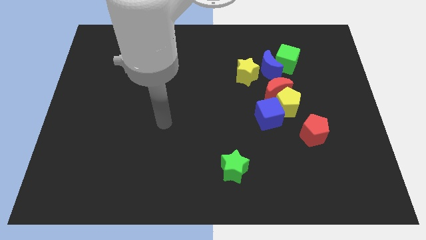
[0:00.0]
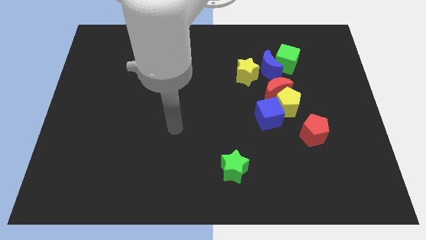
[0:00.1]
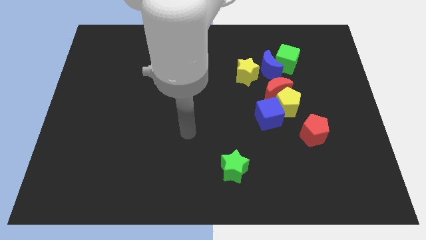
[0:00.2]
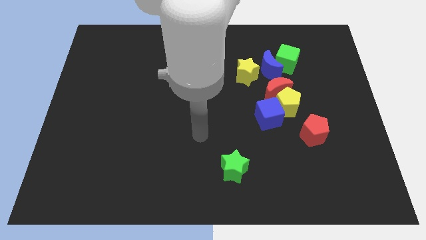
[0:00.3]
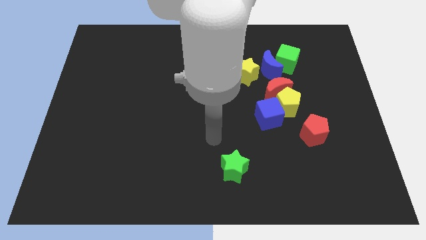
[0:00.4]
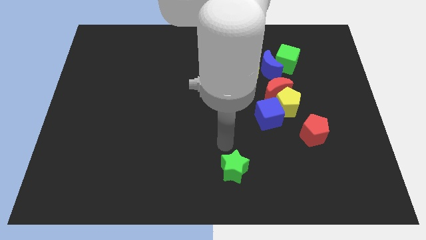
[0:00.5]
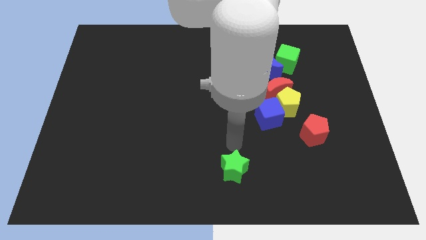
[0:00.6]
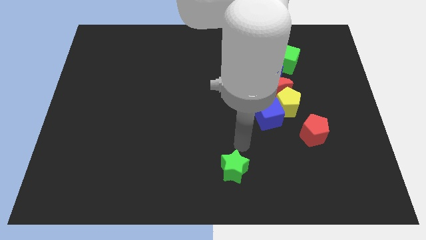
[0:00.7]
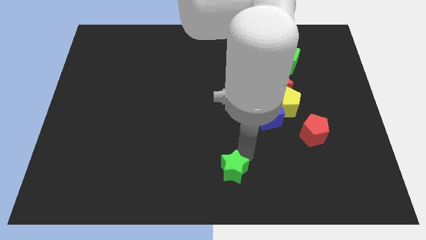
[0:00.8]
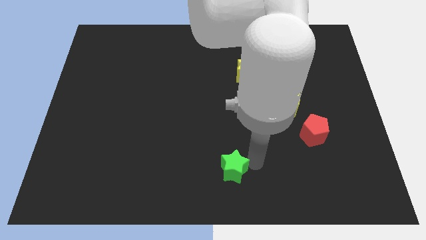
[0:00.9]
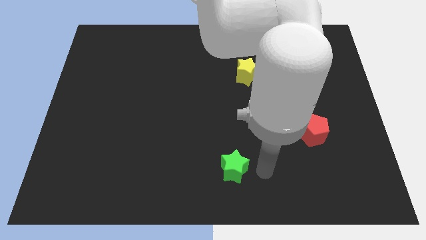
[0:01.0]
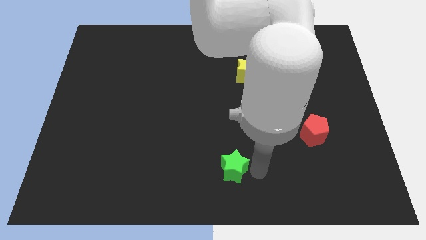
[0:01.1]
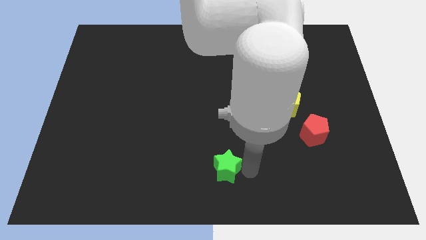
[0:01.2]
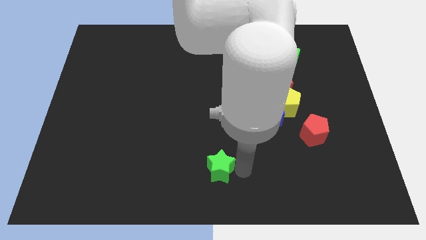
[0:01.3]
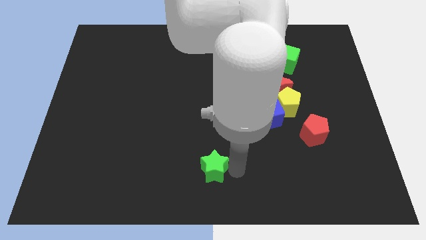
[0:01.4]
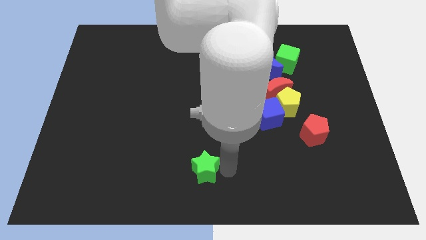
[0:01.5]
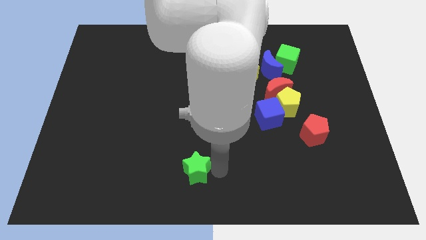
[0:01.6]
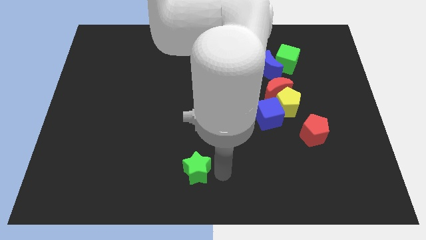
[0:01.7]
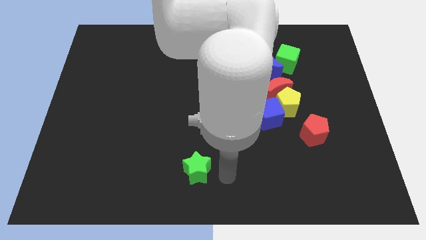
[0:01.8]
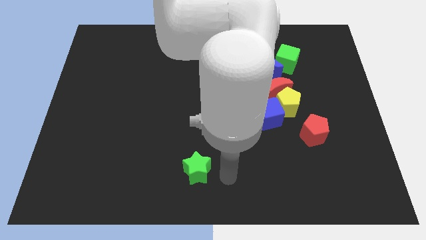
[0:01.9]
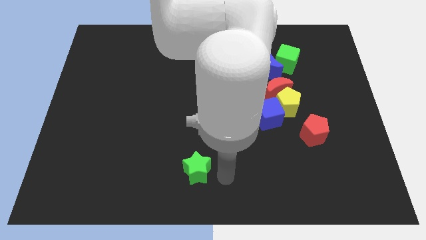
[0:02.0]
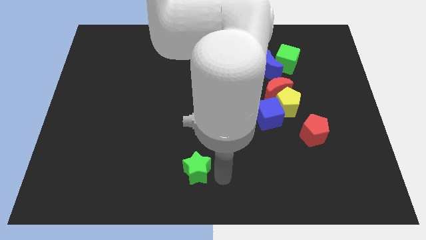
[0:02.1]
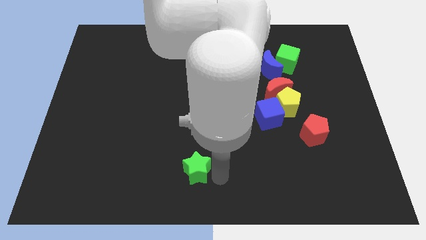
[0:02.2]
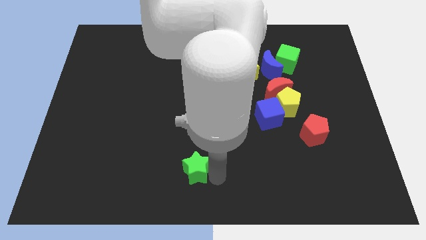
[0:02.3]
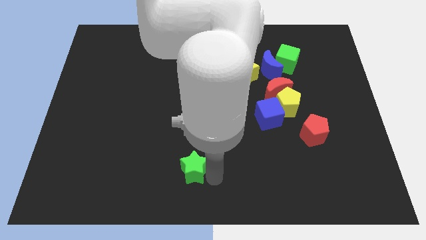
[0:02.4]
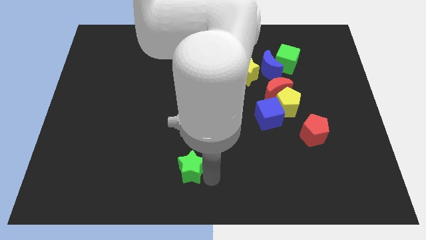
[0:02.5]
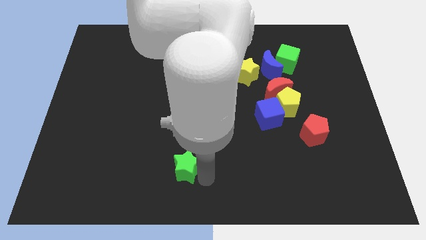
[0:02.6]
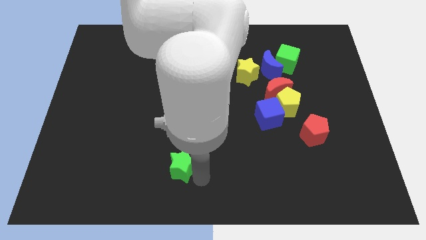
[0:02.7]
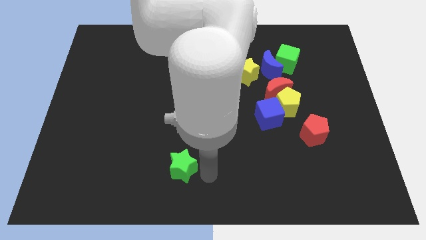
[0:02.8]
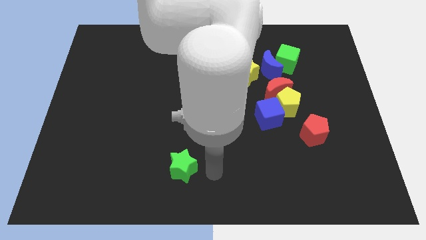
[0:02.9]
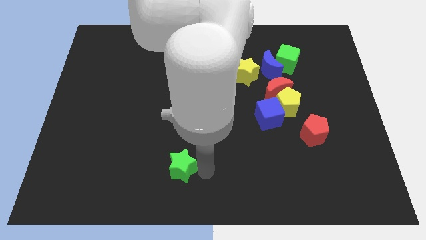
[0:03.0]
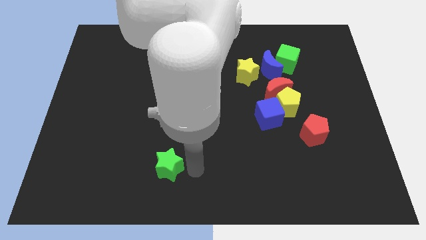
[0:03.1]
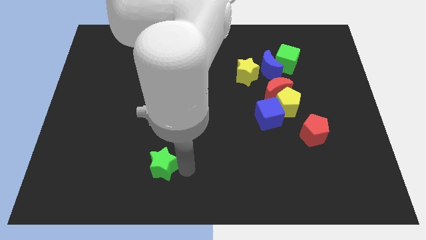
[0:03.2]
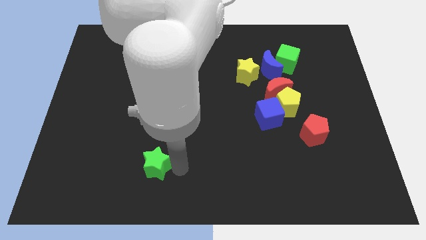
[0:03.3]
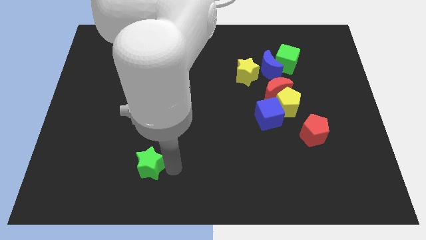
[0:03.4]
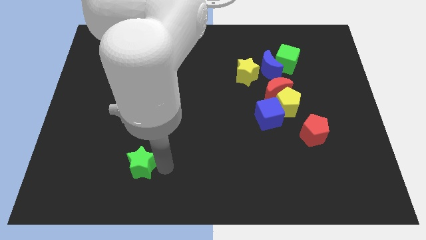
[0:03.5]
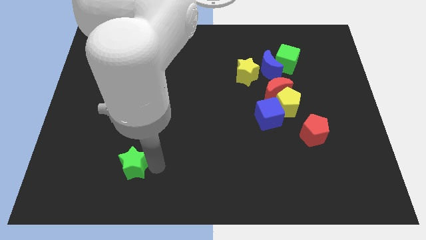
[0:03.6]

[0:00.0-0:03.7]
push the green star left

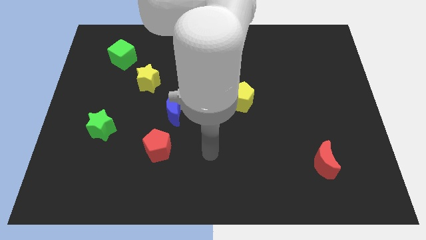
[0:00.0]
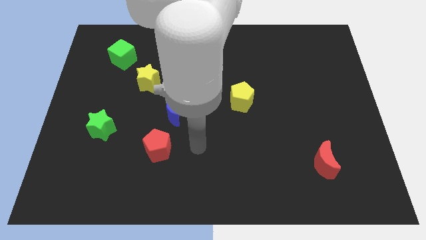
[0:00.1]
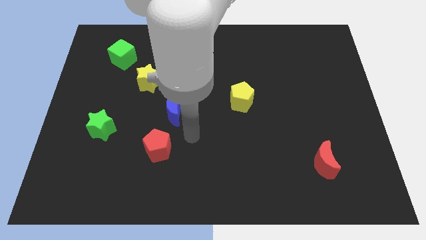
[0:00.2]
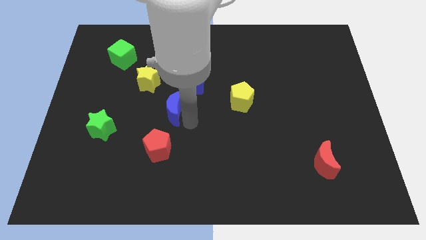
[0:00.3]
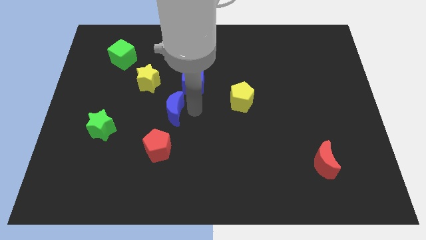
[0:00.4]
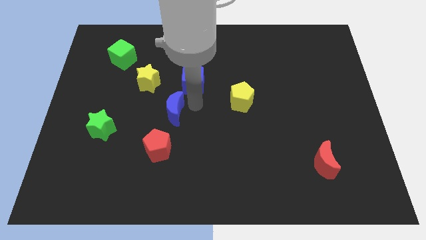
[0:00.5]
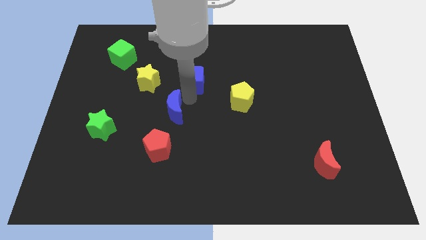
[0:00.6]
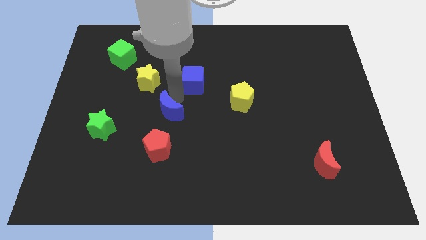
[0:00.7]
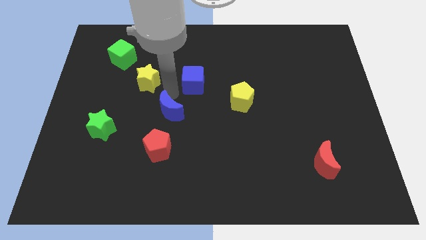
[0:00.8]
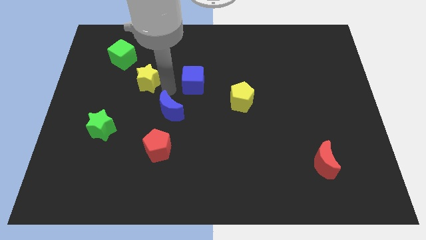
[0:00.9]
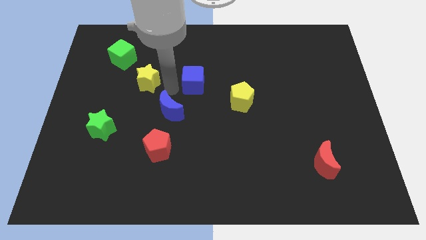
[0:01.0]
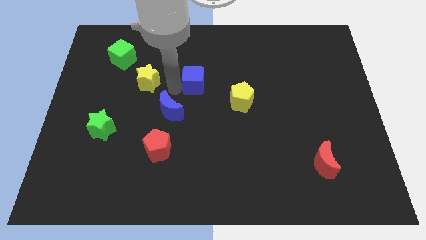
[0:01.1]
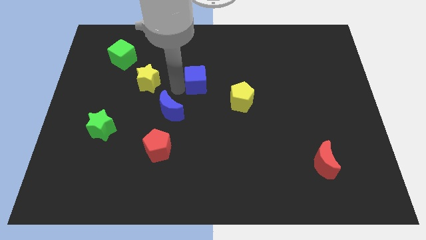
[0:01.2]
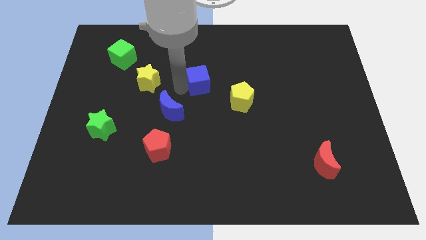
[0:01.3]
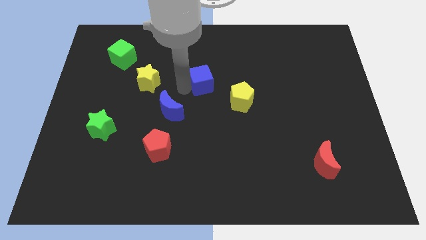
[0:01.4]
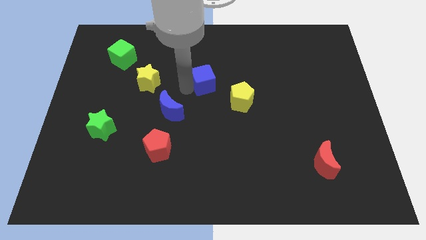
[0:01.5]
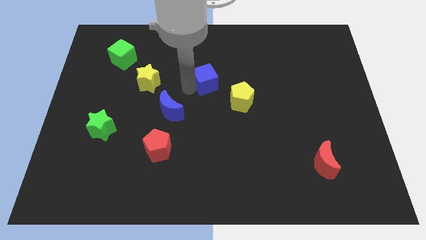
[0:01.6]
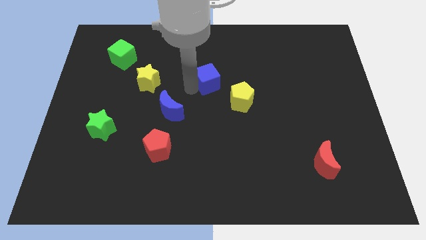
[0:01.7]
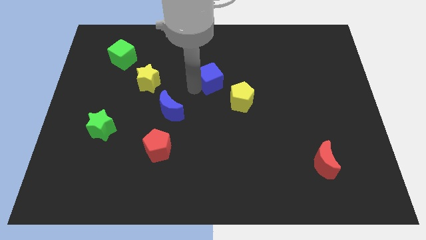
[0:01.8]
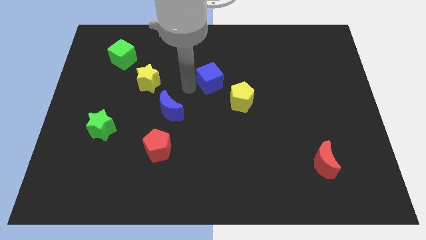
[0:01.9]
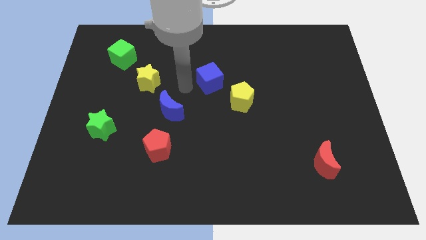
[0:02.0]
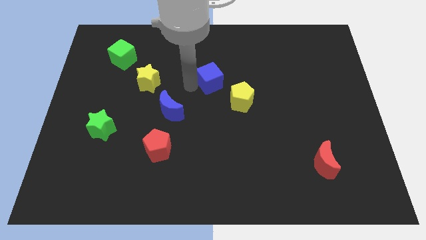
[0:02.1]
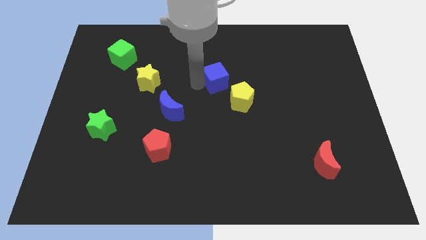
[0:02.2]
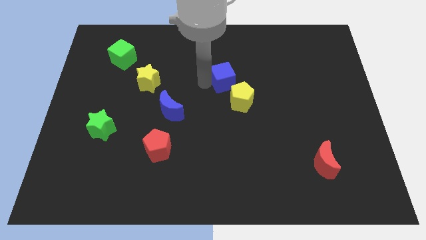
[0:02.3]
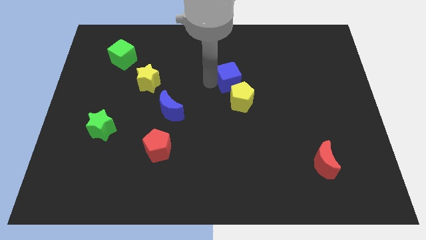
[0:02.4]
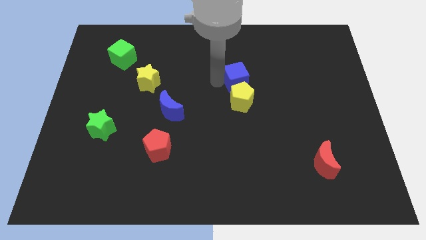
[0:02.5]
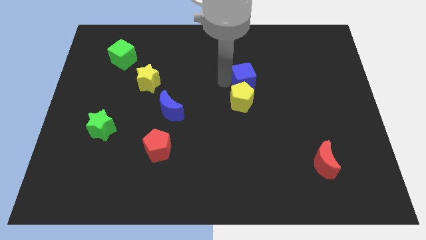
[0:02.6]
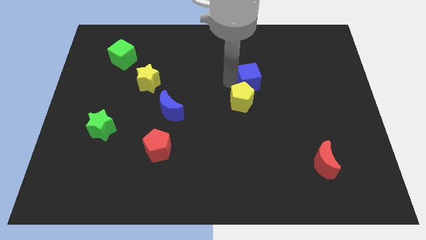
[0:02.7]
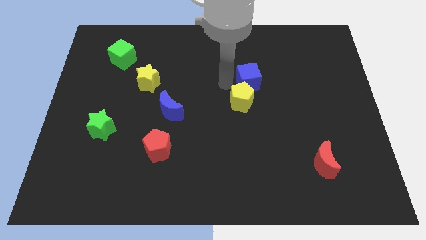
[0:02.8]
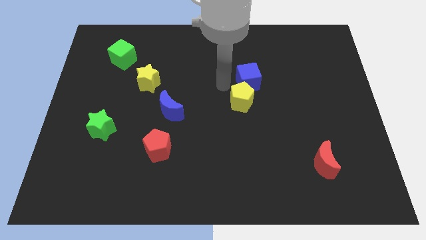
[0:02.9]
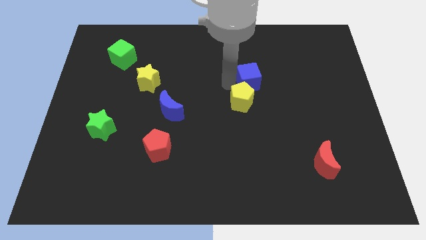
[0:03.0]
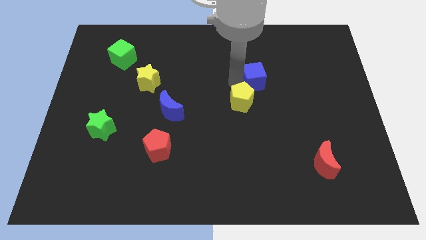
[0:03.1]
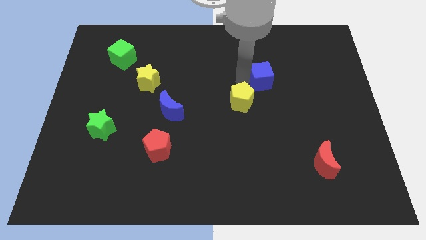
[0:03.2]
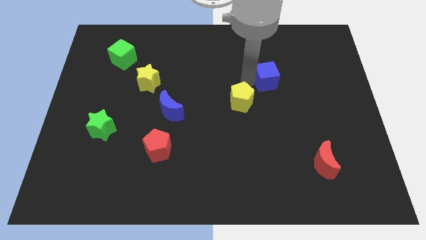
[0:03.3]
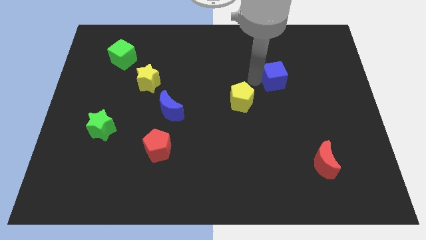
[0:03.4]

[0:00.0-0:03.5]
slide the blue cube right

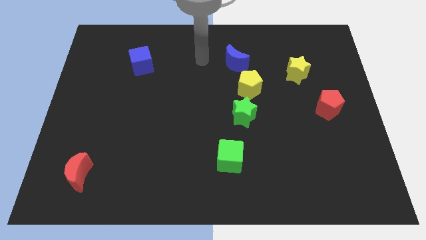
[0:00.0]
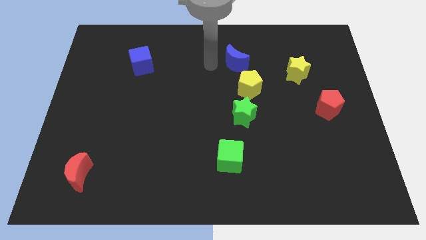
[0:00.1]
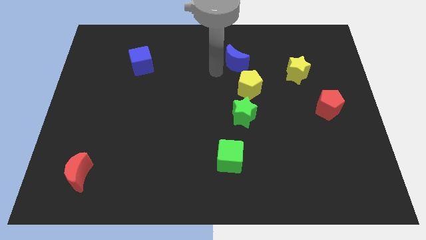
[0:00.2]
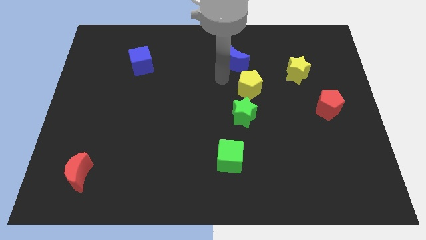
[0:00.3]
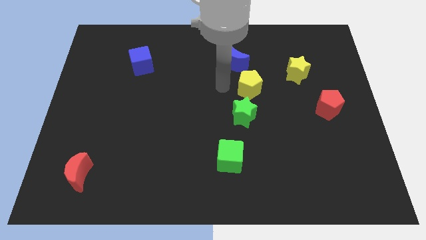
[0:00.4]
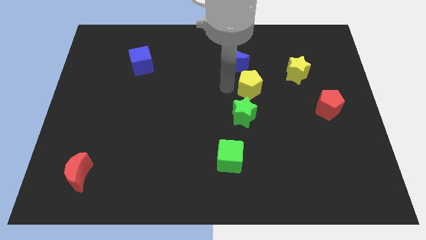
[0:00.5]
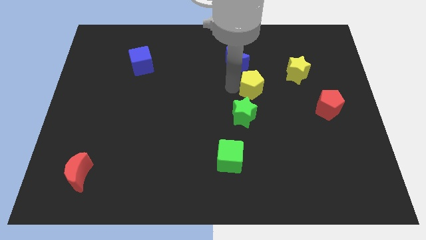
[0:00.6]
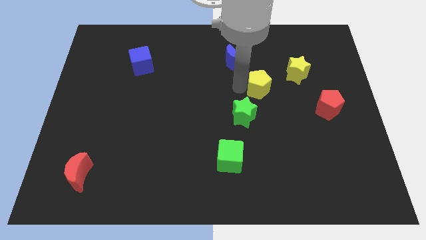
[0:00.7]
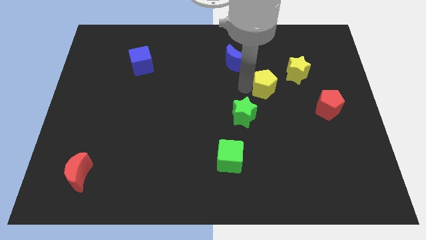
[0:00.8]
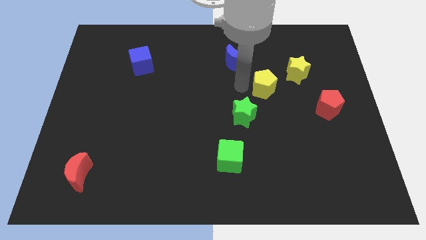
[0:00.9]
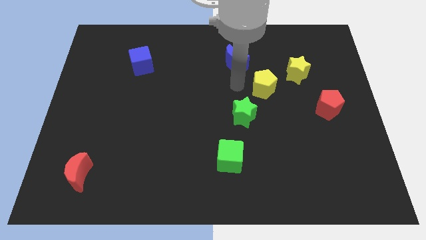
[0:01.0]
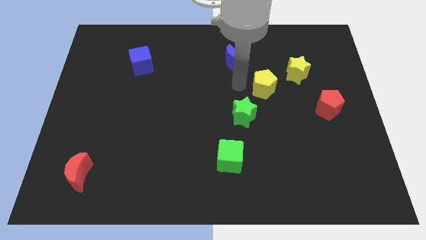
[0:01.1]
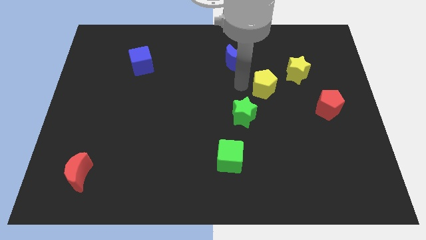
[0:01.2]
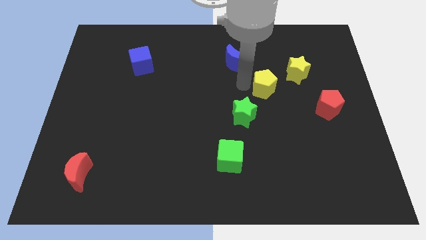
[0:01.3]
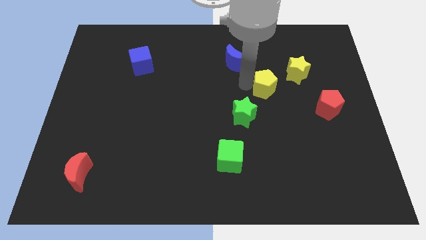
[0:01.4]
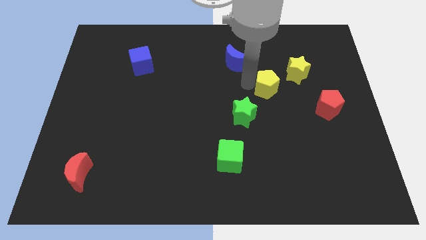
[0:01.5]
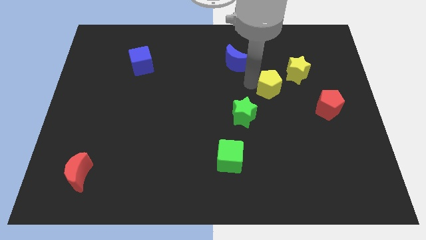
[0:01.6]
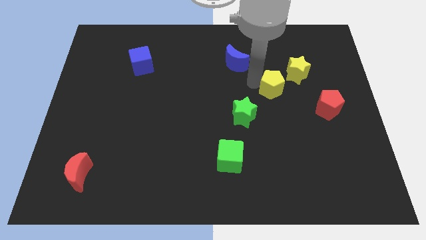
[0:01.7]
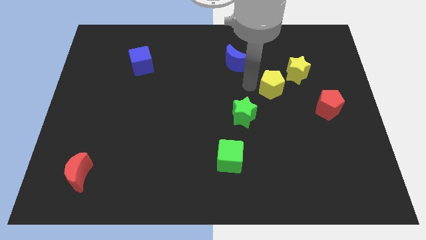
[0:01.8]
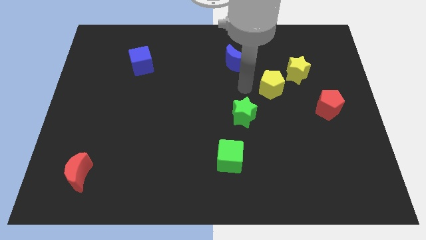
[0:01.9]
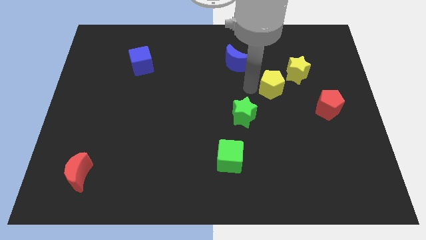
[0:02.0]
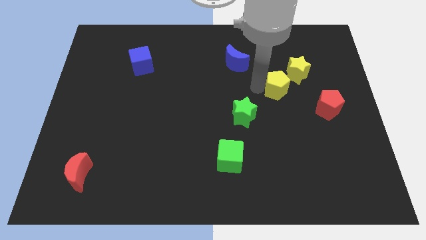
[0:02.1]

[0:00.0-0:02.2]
push the yellow pentagon to the right a little bit
